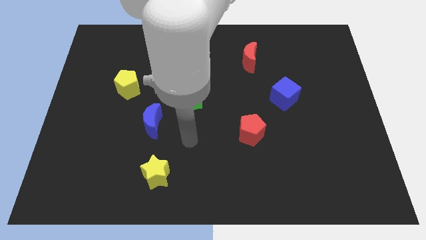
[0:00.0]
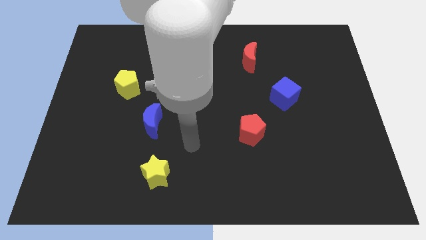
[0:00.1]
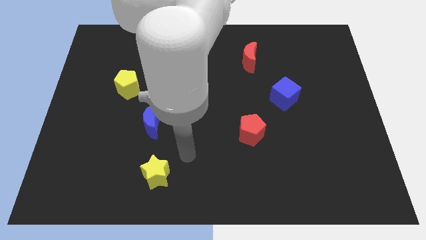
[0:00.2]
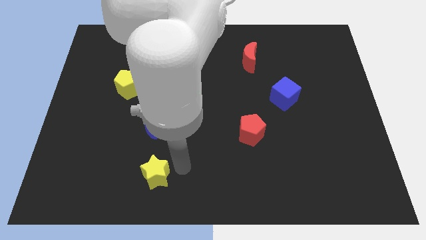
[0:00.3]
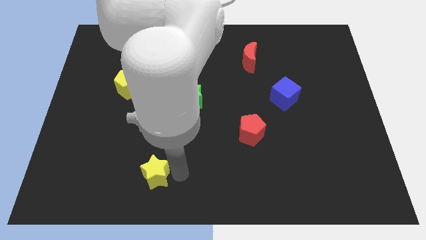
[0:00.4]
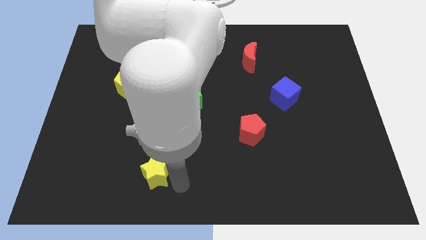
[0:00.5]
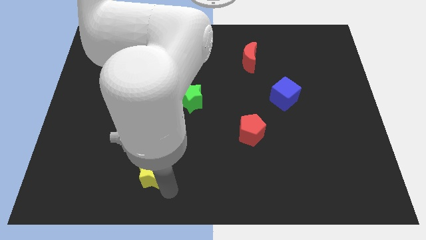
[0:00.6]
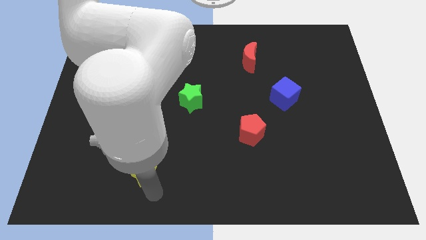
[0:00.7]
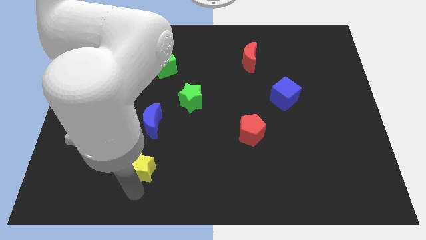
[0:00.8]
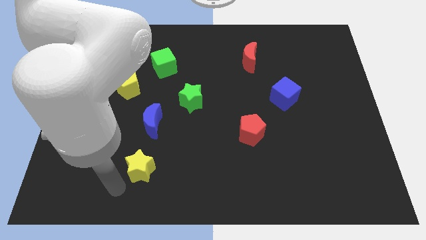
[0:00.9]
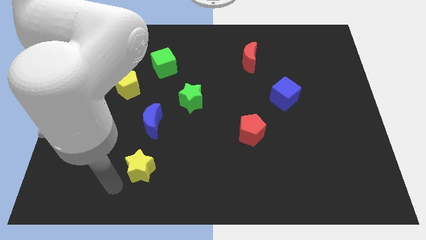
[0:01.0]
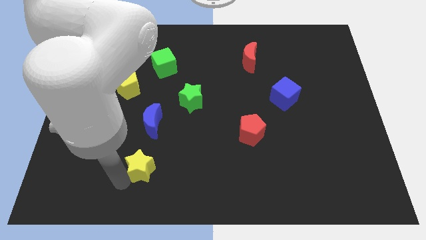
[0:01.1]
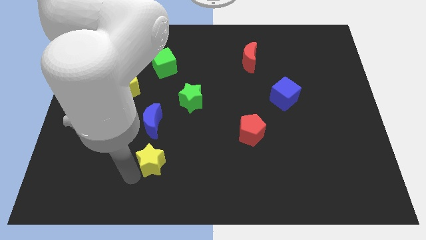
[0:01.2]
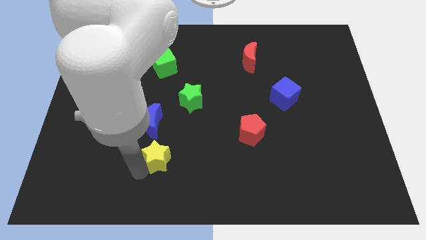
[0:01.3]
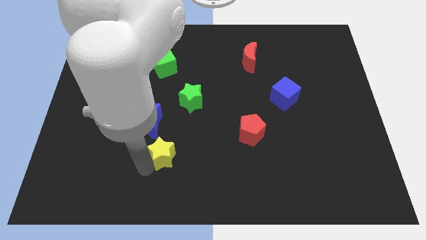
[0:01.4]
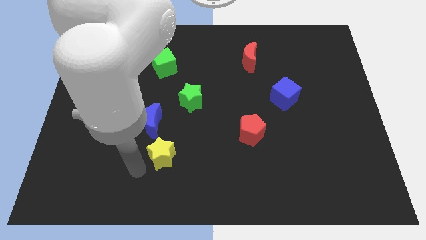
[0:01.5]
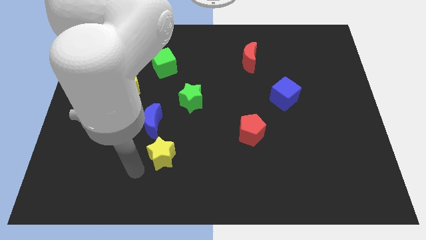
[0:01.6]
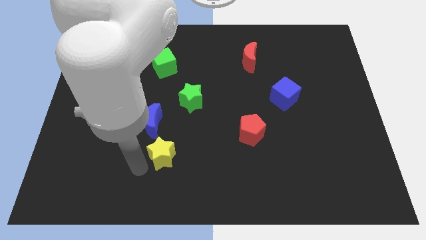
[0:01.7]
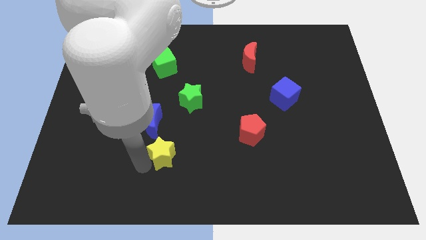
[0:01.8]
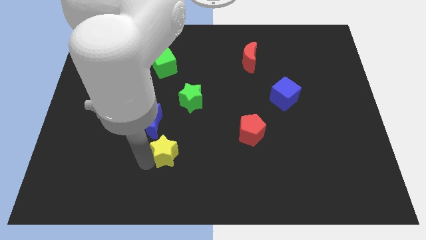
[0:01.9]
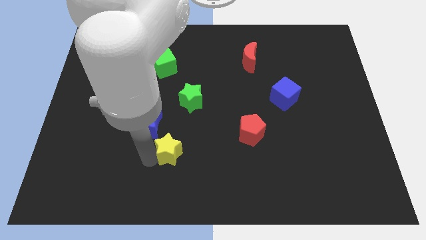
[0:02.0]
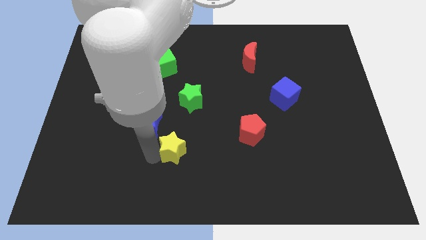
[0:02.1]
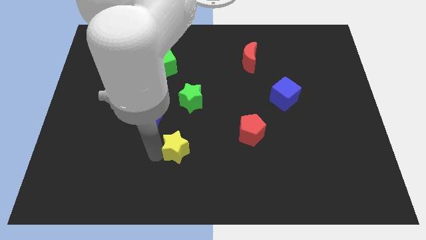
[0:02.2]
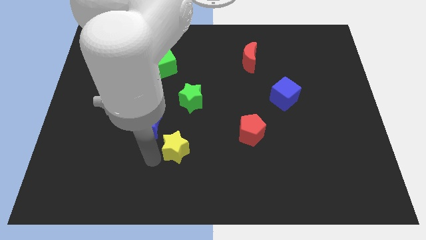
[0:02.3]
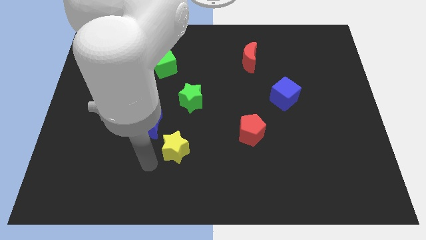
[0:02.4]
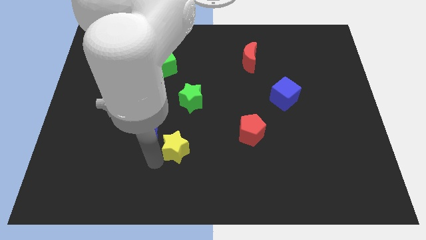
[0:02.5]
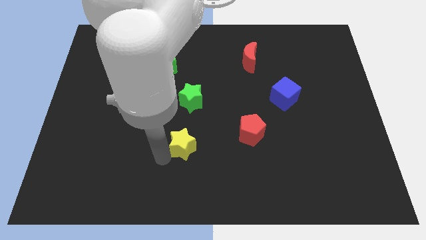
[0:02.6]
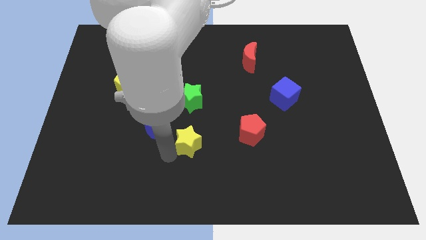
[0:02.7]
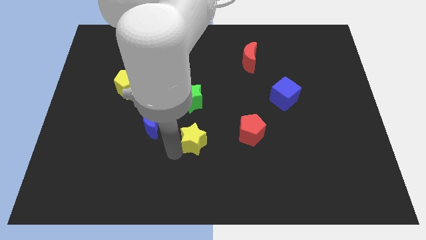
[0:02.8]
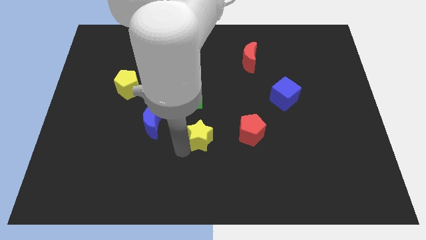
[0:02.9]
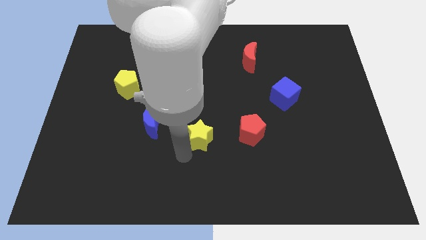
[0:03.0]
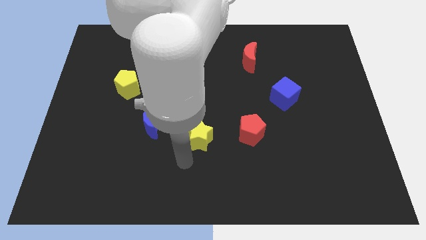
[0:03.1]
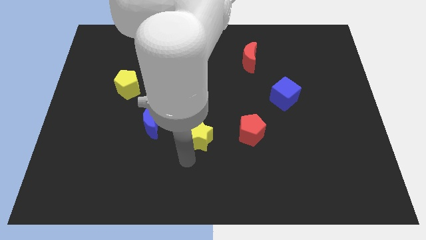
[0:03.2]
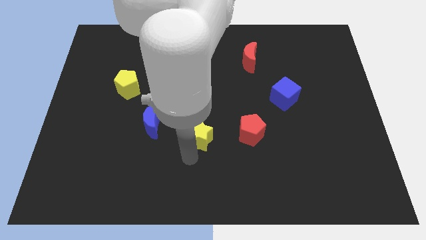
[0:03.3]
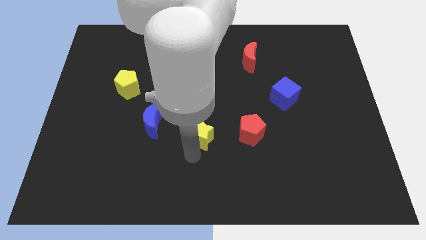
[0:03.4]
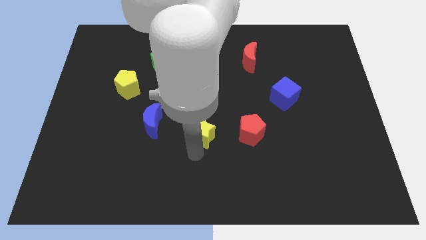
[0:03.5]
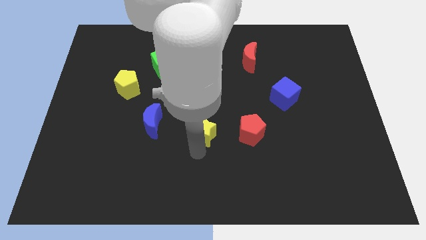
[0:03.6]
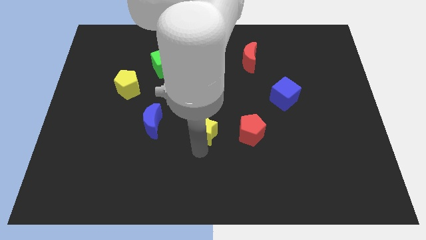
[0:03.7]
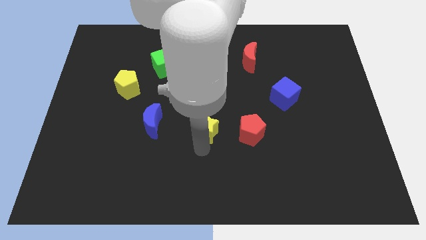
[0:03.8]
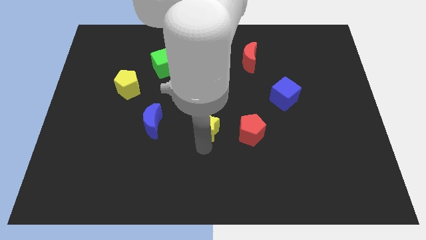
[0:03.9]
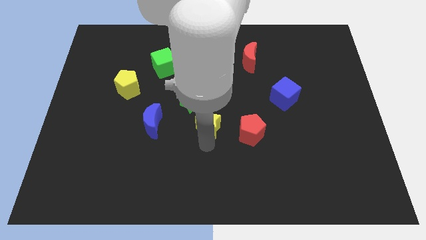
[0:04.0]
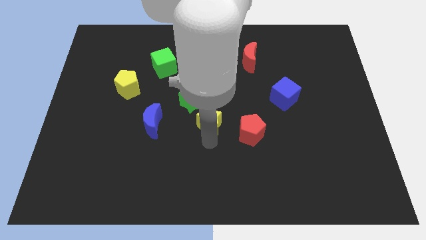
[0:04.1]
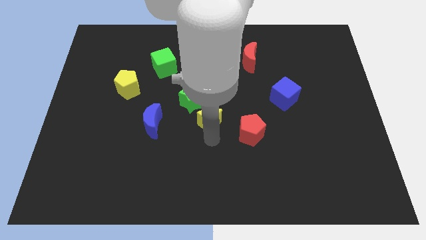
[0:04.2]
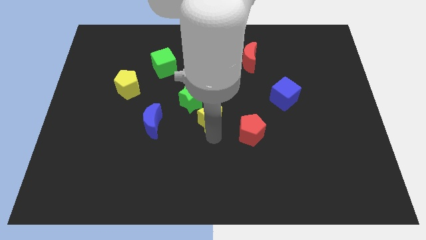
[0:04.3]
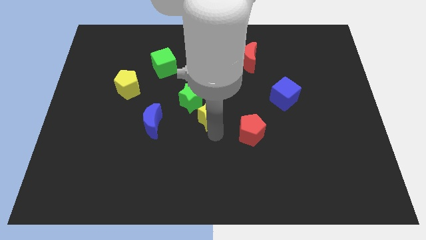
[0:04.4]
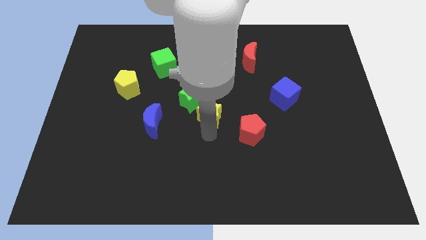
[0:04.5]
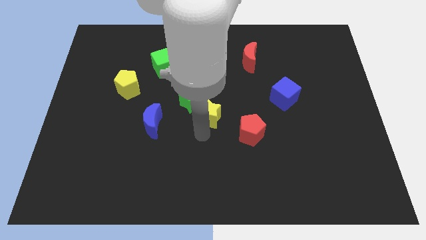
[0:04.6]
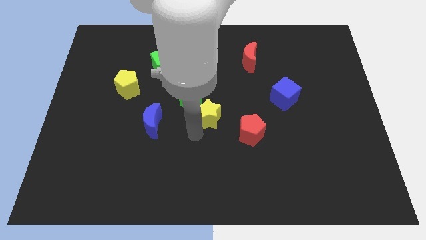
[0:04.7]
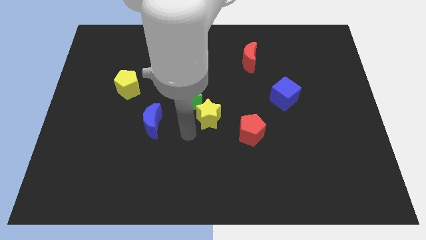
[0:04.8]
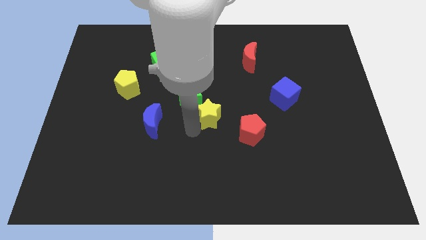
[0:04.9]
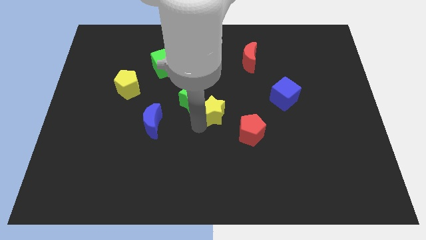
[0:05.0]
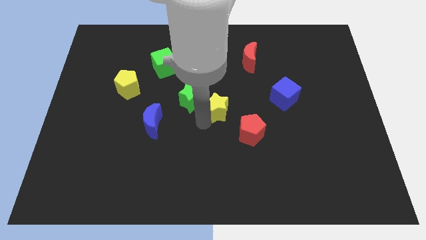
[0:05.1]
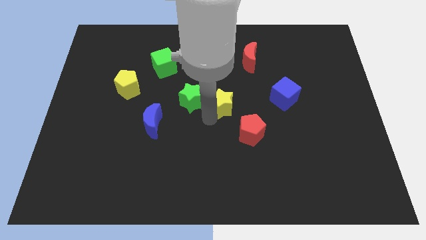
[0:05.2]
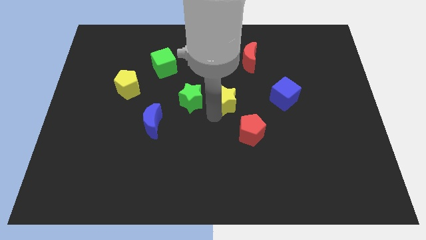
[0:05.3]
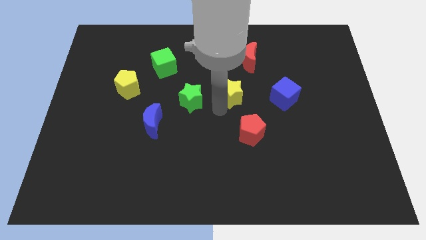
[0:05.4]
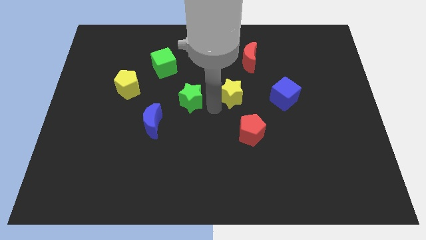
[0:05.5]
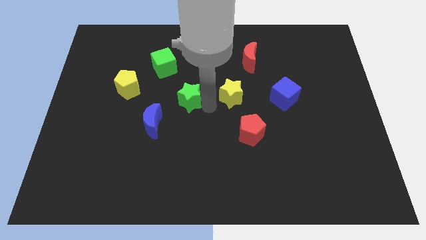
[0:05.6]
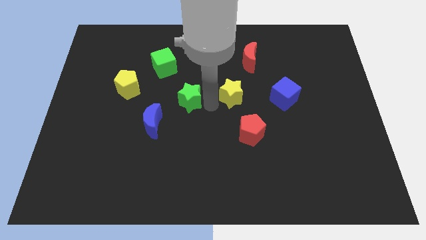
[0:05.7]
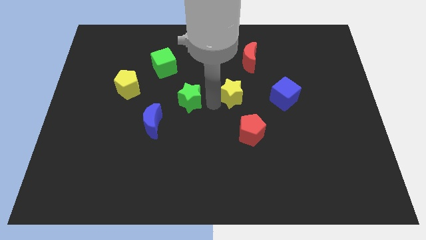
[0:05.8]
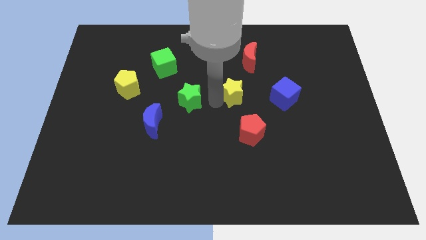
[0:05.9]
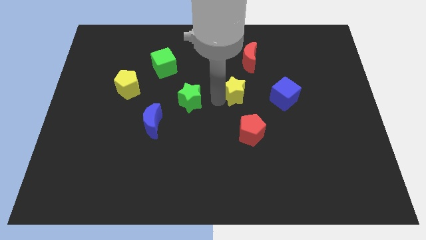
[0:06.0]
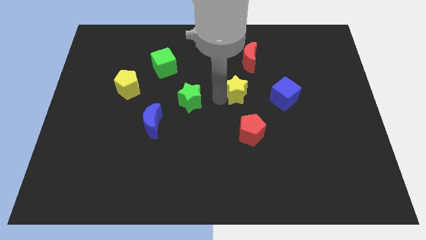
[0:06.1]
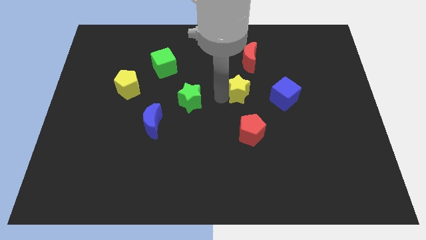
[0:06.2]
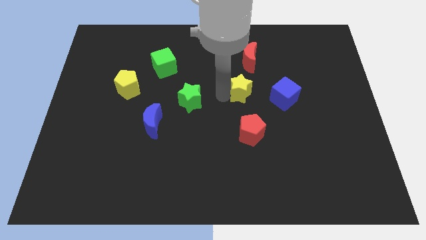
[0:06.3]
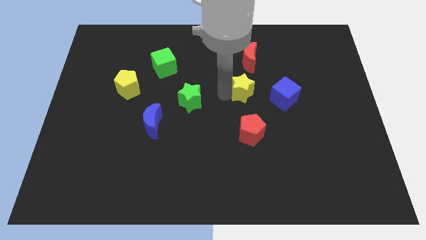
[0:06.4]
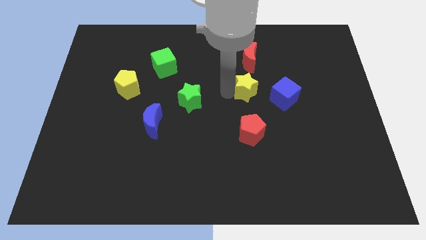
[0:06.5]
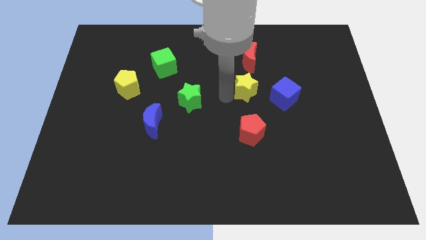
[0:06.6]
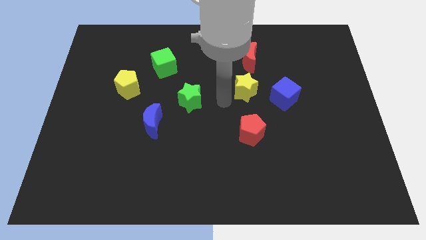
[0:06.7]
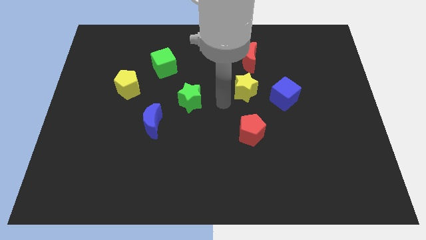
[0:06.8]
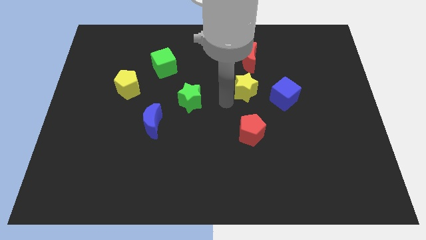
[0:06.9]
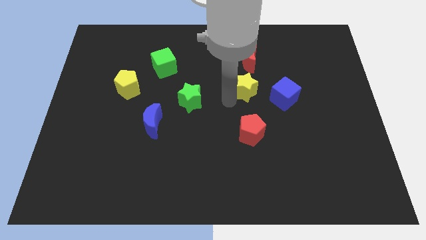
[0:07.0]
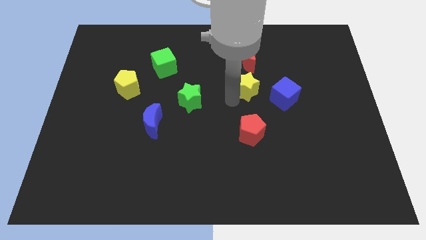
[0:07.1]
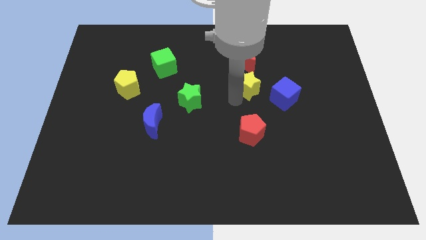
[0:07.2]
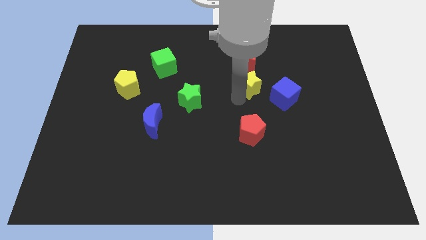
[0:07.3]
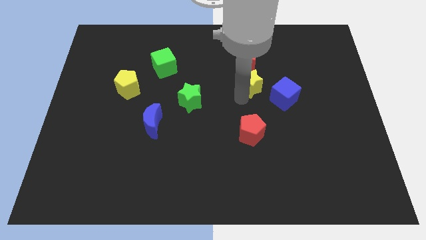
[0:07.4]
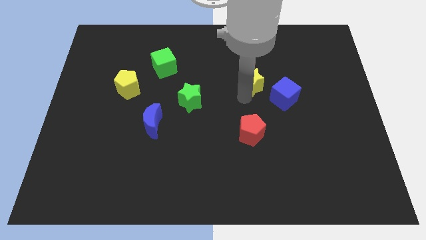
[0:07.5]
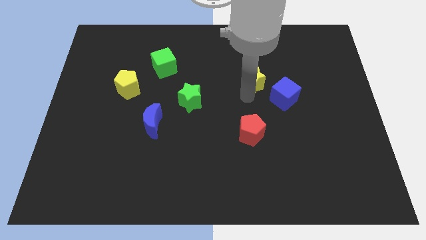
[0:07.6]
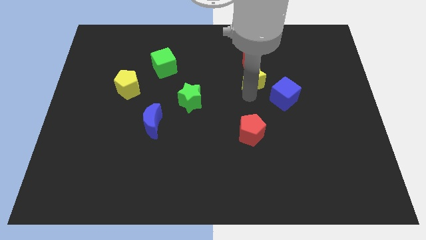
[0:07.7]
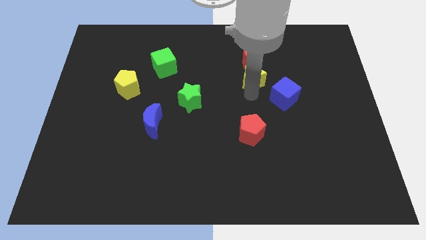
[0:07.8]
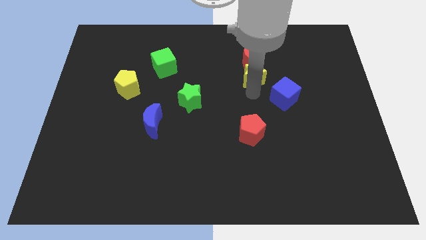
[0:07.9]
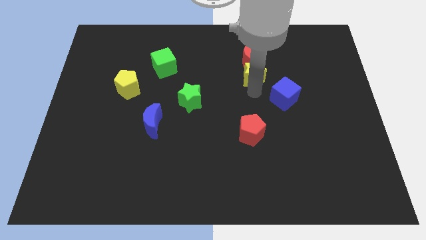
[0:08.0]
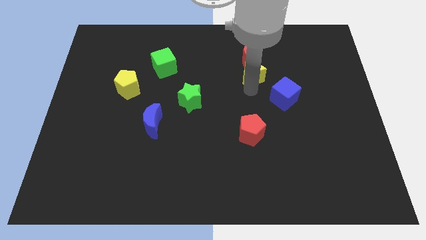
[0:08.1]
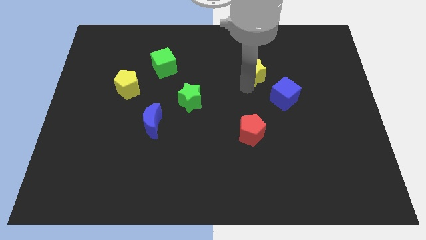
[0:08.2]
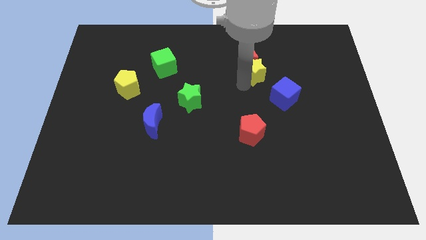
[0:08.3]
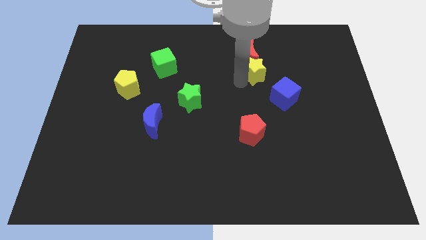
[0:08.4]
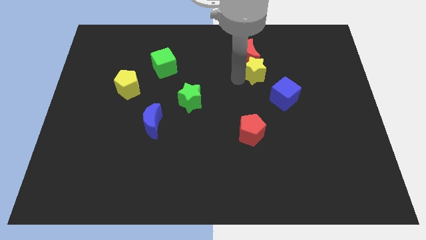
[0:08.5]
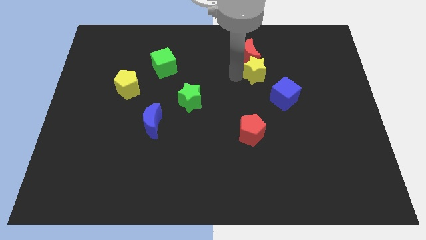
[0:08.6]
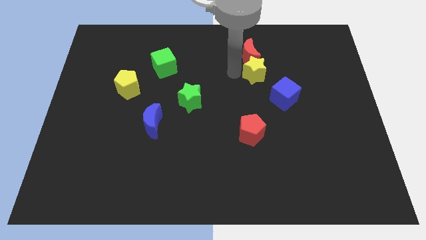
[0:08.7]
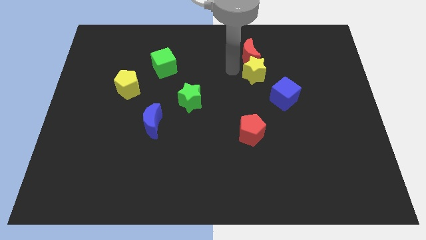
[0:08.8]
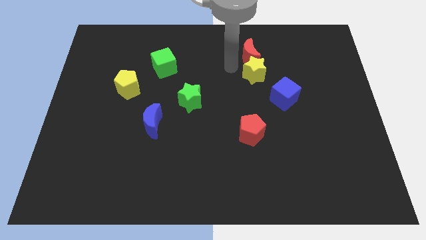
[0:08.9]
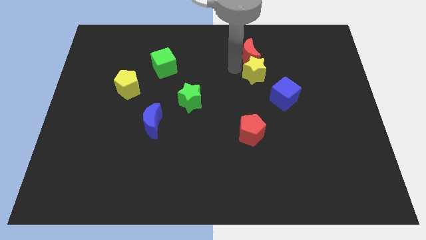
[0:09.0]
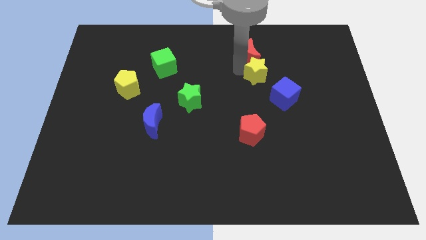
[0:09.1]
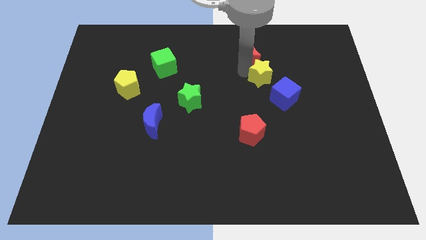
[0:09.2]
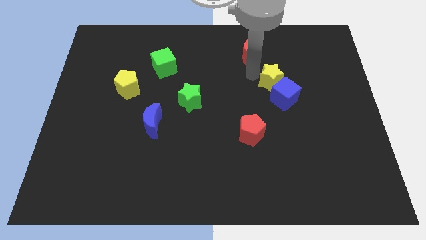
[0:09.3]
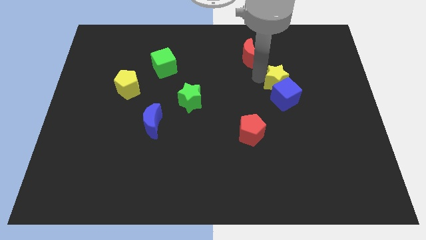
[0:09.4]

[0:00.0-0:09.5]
push the yellow star to the top right side of the blue cube
